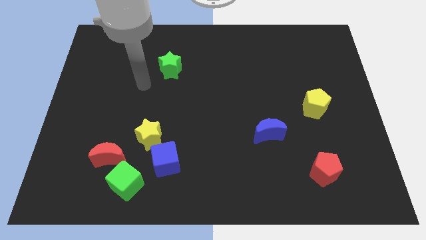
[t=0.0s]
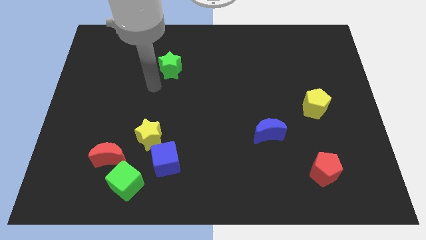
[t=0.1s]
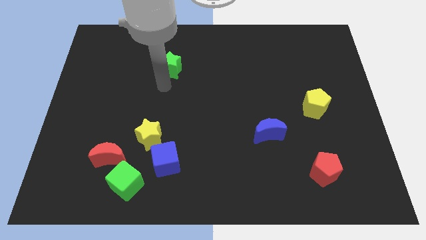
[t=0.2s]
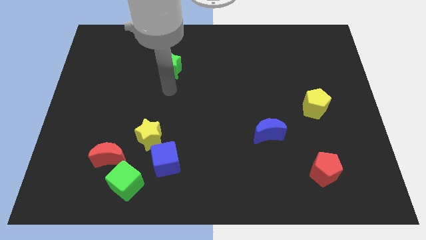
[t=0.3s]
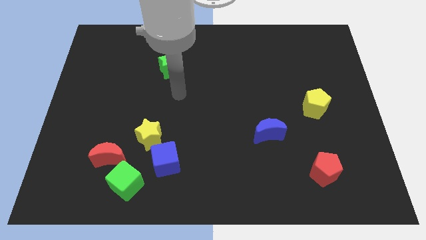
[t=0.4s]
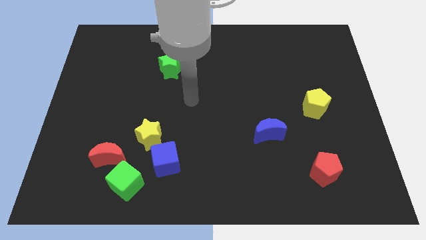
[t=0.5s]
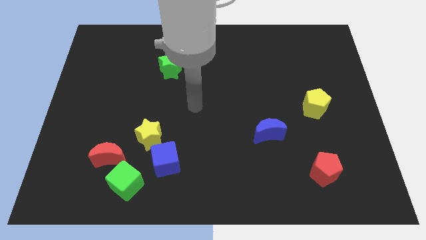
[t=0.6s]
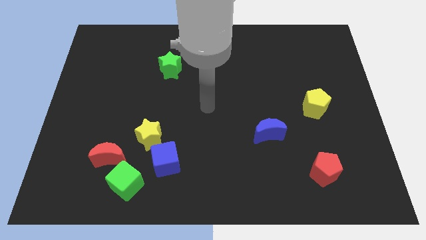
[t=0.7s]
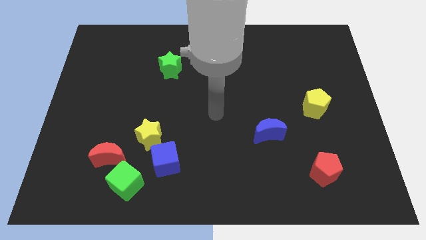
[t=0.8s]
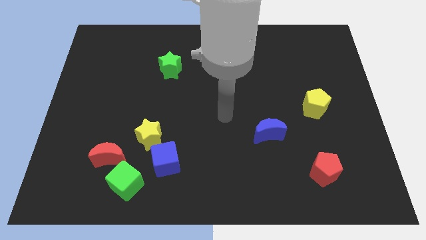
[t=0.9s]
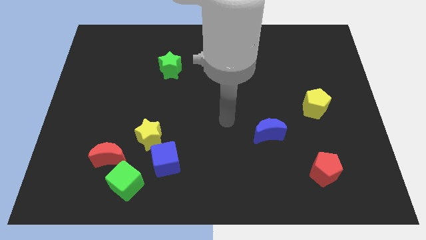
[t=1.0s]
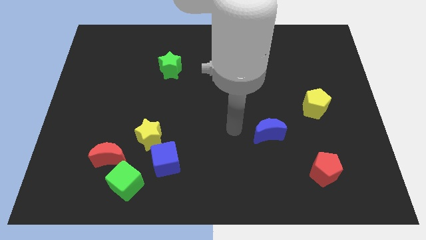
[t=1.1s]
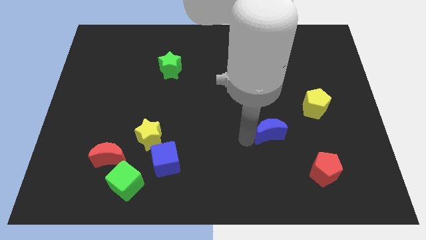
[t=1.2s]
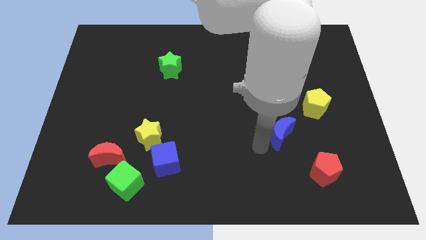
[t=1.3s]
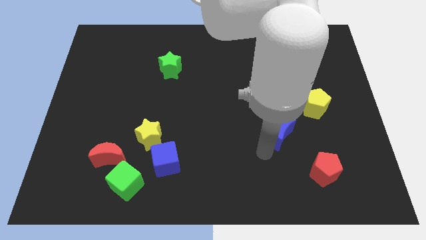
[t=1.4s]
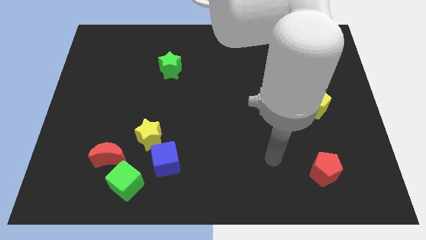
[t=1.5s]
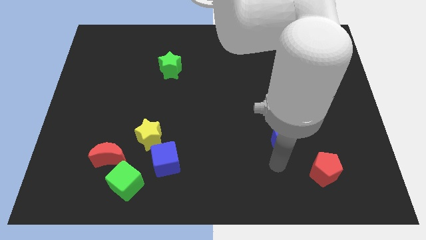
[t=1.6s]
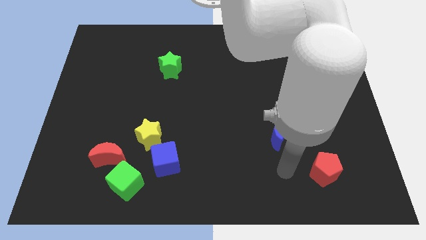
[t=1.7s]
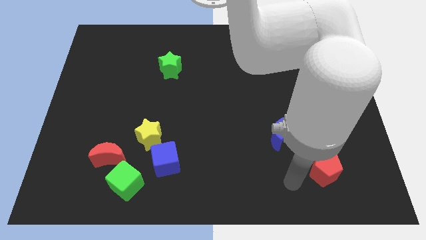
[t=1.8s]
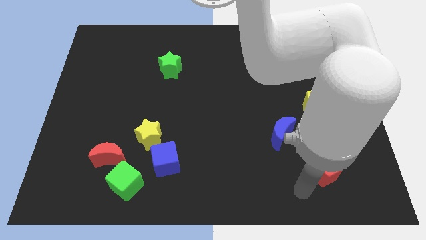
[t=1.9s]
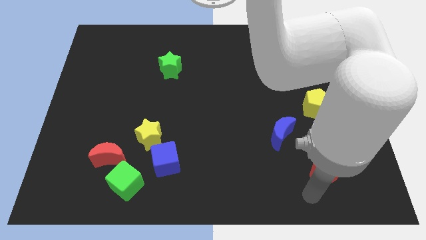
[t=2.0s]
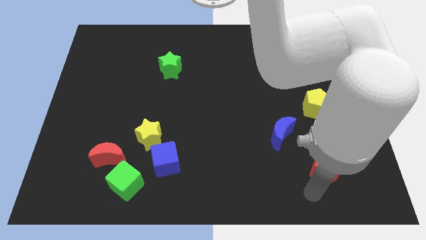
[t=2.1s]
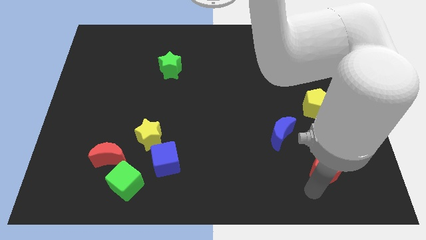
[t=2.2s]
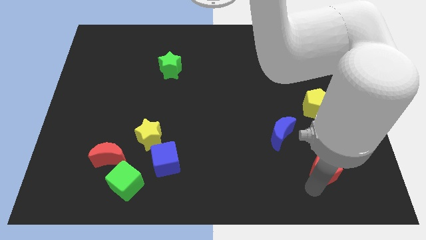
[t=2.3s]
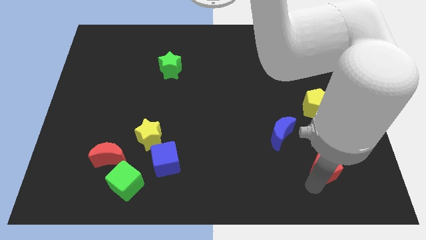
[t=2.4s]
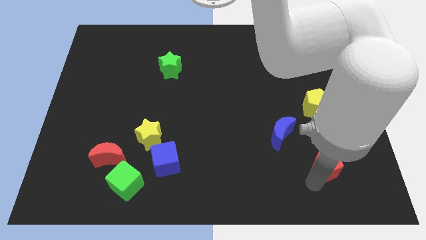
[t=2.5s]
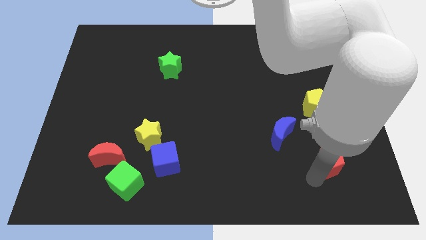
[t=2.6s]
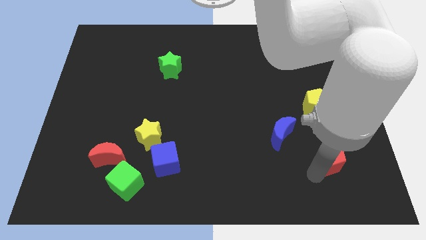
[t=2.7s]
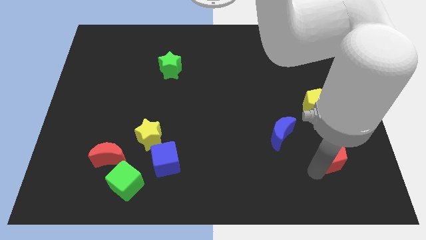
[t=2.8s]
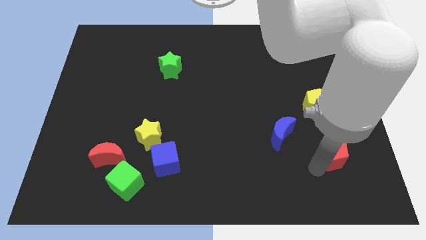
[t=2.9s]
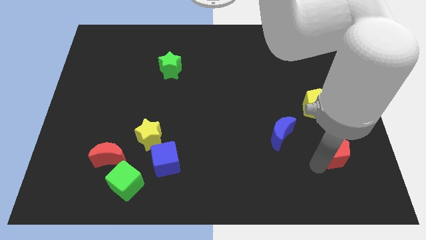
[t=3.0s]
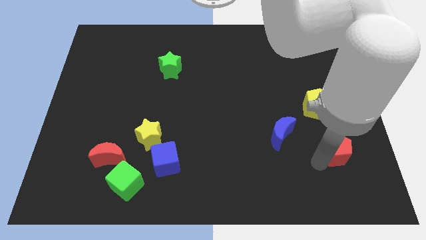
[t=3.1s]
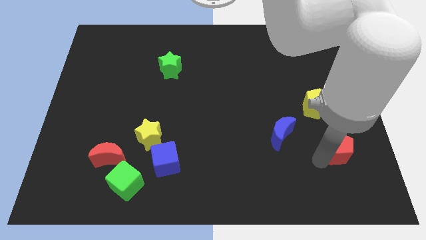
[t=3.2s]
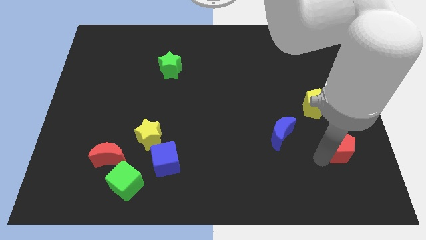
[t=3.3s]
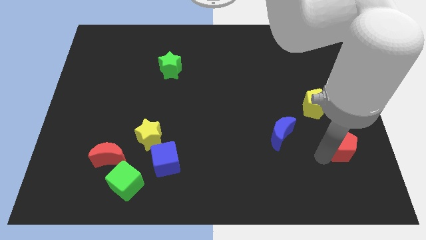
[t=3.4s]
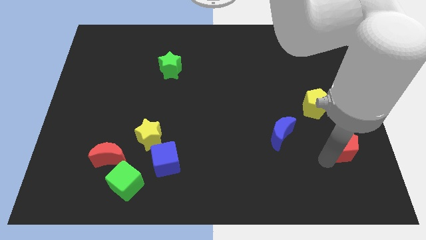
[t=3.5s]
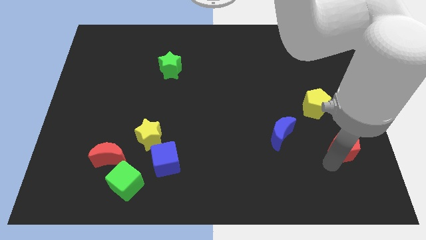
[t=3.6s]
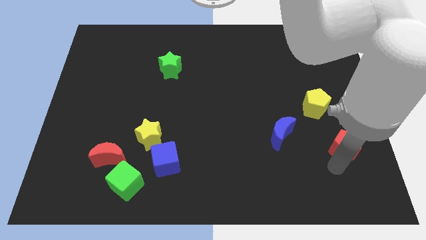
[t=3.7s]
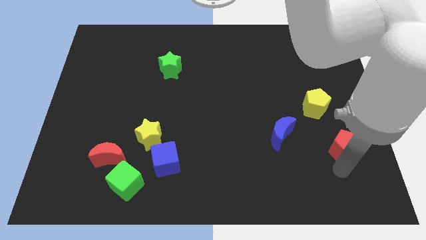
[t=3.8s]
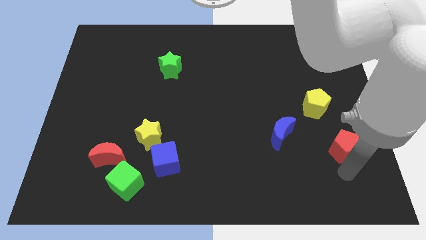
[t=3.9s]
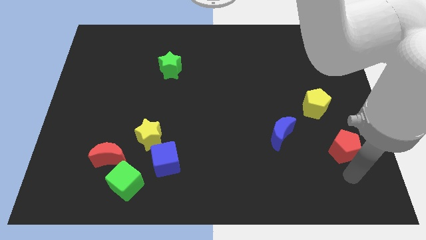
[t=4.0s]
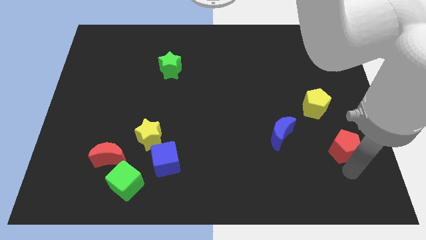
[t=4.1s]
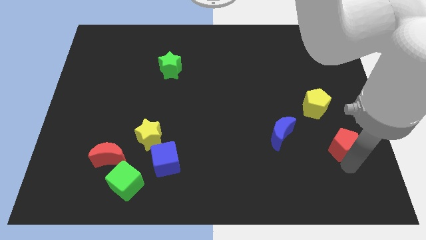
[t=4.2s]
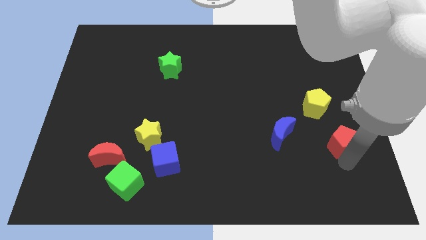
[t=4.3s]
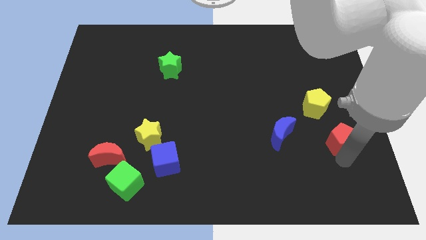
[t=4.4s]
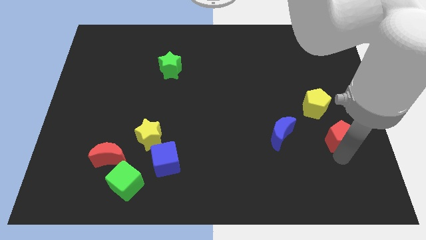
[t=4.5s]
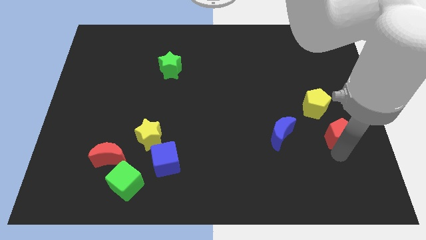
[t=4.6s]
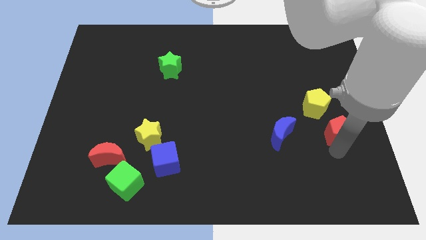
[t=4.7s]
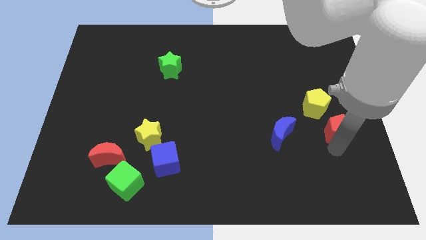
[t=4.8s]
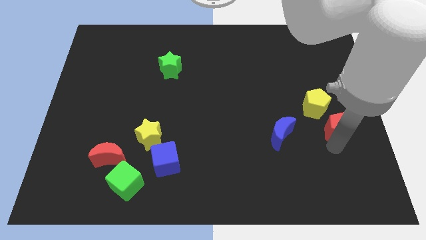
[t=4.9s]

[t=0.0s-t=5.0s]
push the red pentagon to the right side

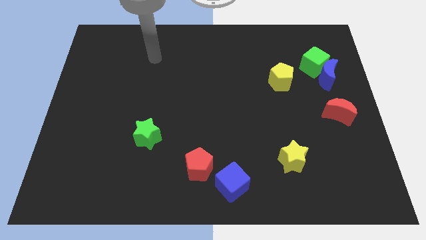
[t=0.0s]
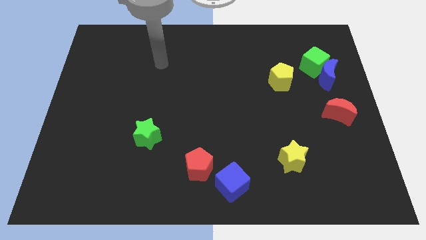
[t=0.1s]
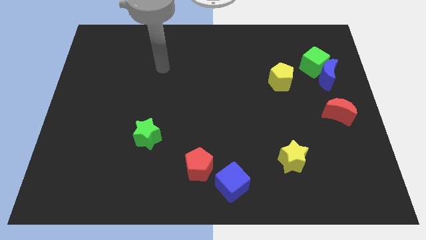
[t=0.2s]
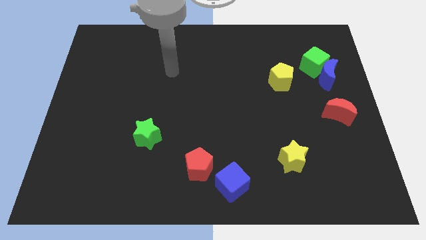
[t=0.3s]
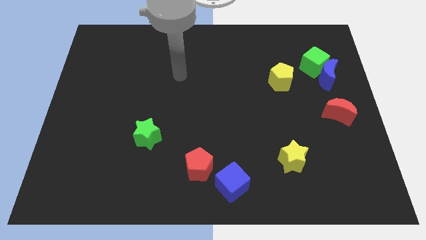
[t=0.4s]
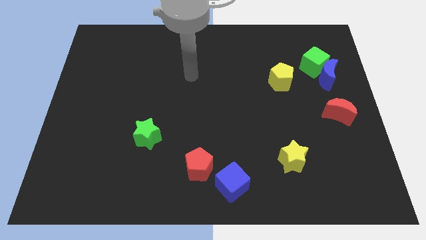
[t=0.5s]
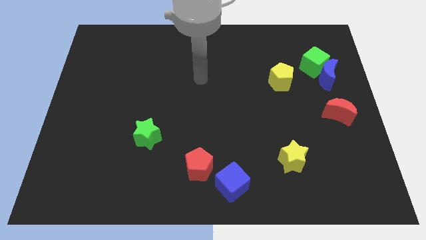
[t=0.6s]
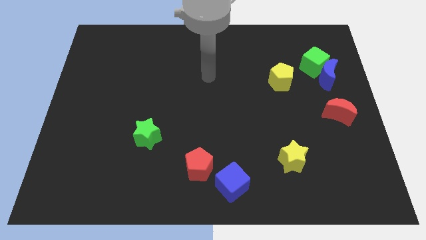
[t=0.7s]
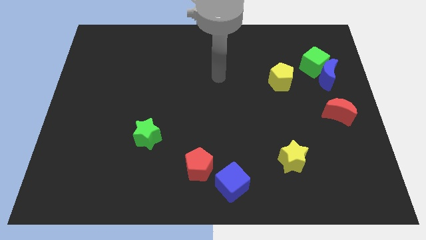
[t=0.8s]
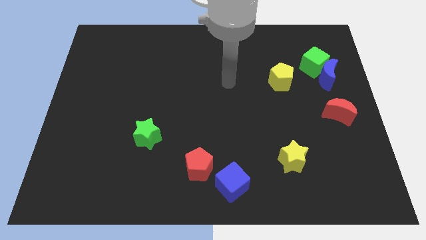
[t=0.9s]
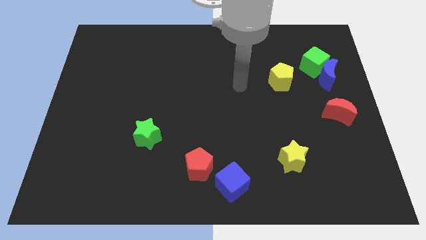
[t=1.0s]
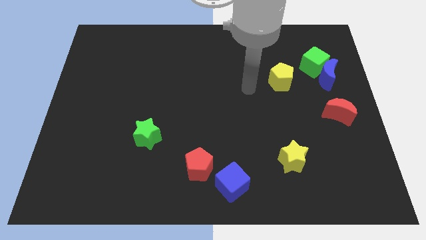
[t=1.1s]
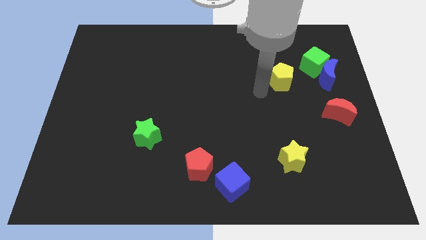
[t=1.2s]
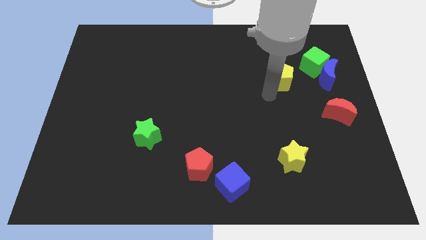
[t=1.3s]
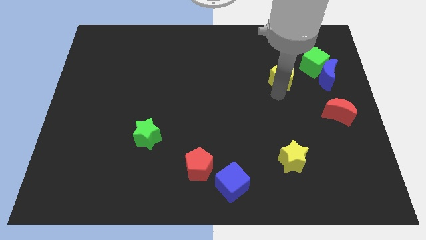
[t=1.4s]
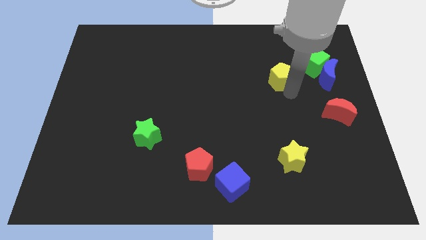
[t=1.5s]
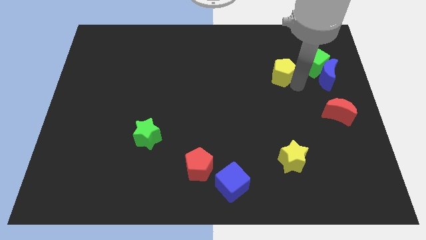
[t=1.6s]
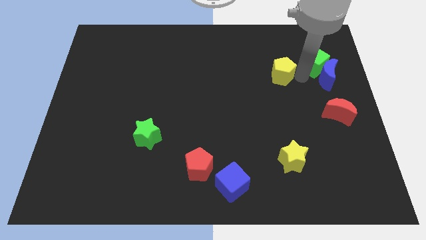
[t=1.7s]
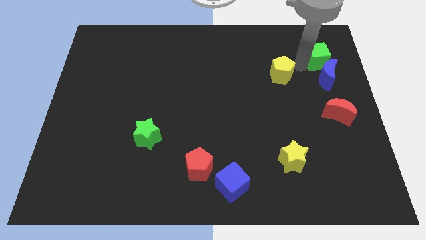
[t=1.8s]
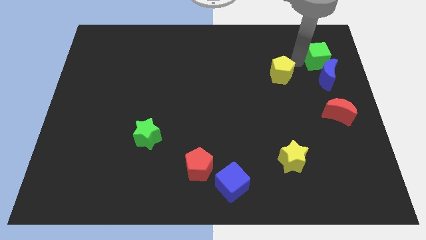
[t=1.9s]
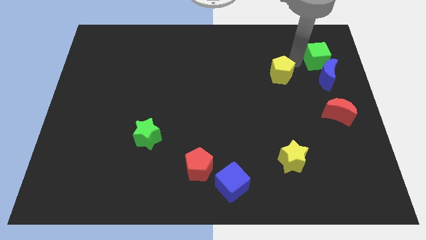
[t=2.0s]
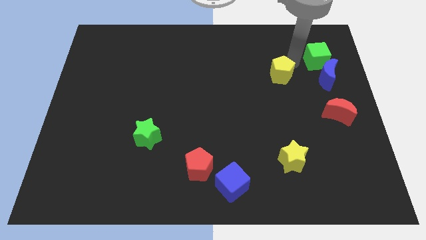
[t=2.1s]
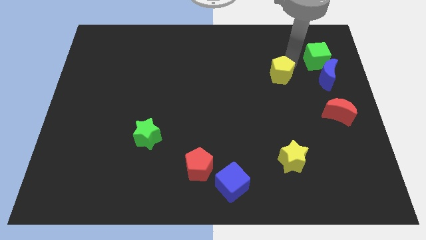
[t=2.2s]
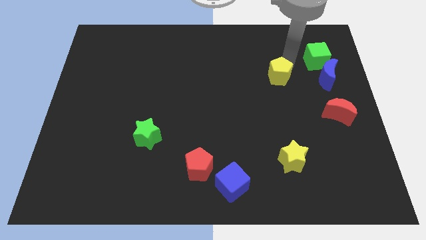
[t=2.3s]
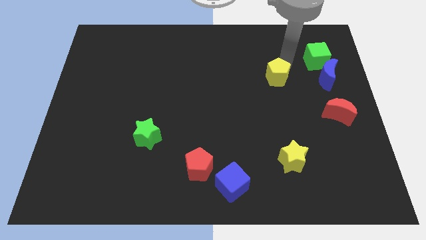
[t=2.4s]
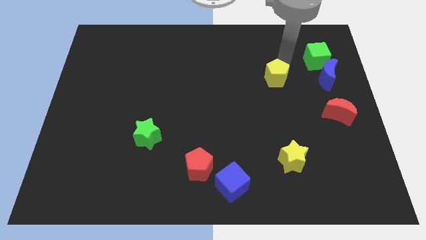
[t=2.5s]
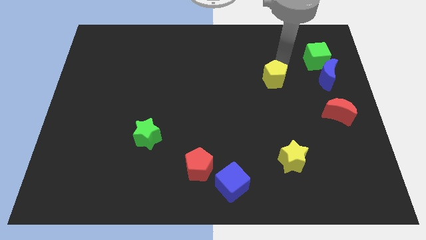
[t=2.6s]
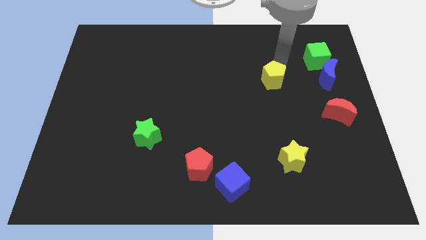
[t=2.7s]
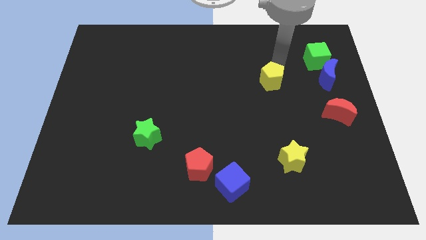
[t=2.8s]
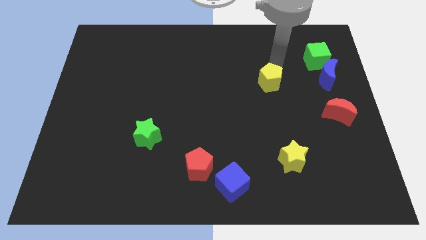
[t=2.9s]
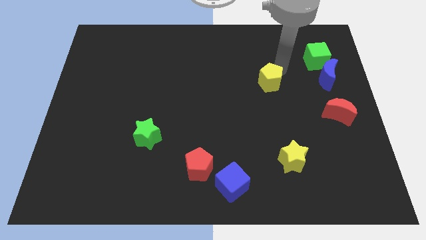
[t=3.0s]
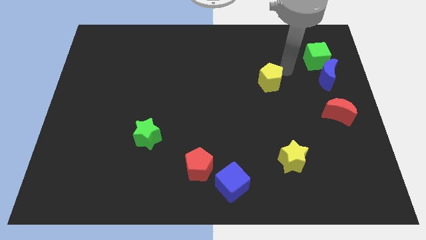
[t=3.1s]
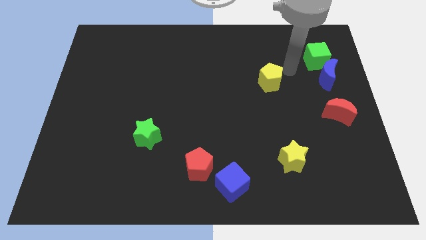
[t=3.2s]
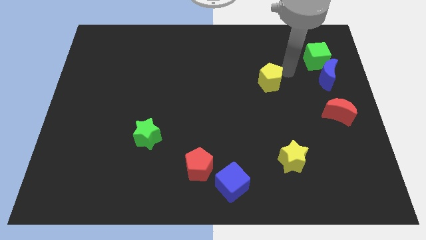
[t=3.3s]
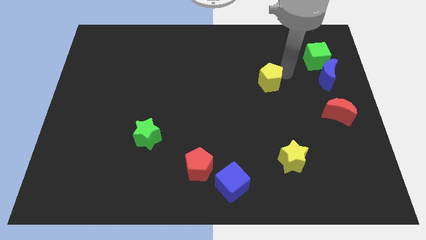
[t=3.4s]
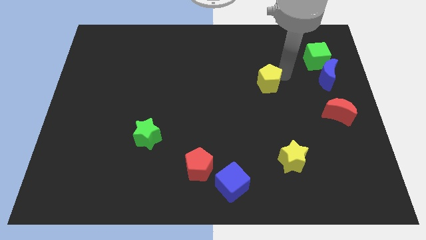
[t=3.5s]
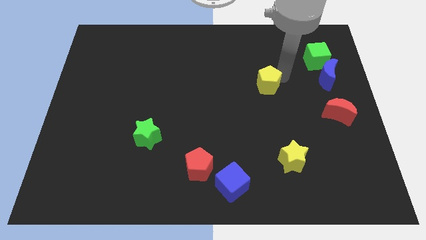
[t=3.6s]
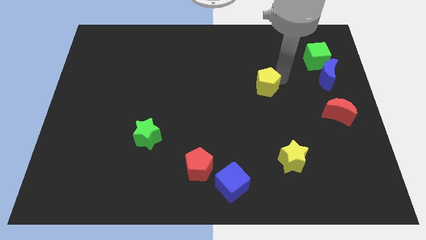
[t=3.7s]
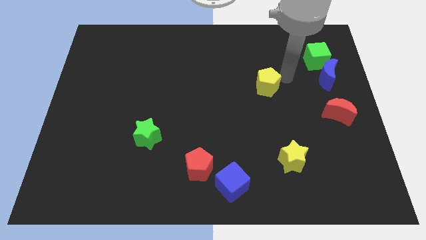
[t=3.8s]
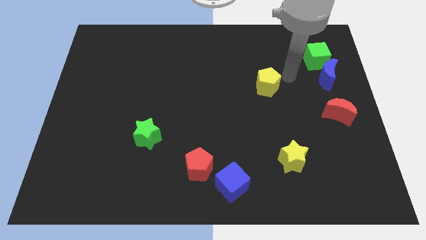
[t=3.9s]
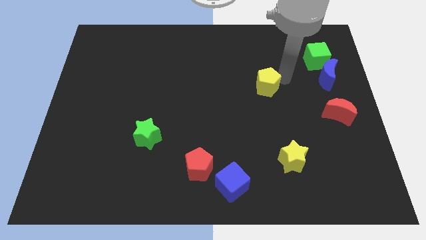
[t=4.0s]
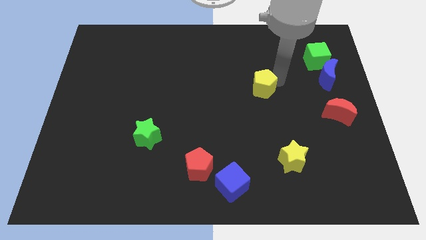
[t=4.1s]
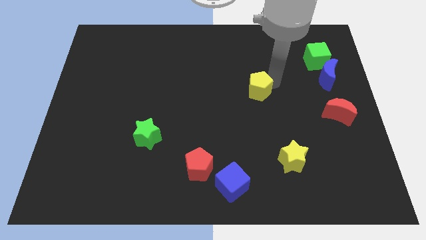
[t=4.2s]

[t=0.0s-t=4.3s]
slide the yellow pentagon to the middle of the board
